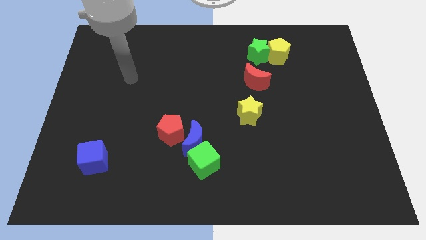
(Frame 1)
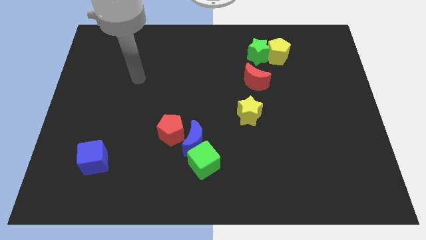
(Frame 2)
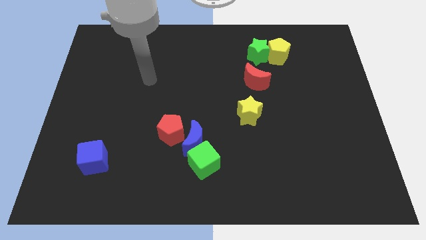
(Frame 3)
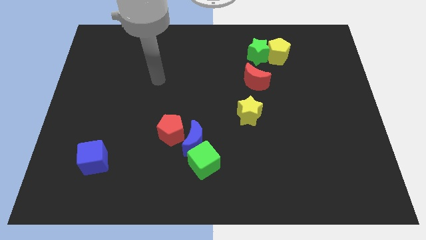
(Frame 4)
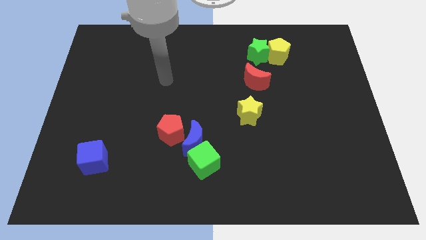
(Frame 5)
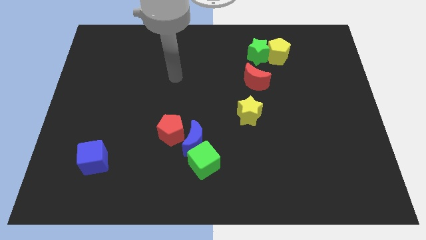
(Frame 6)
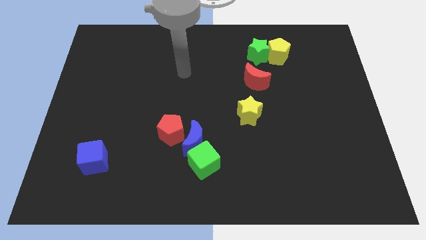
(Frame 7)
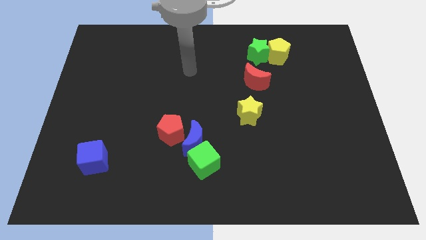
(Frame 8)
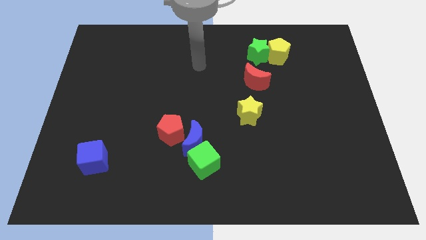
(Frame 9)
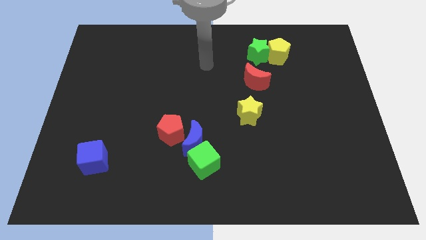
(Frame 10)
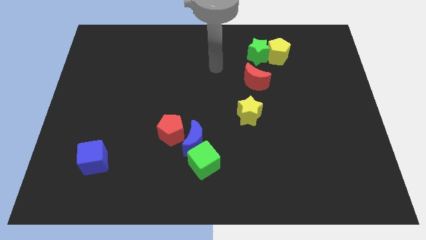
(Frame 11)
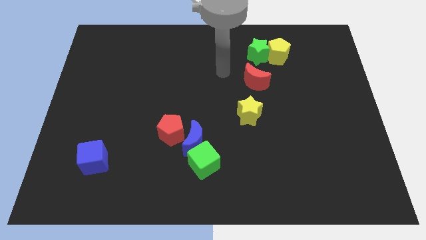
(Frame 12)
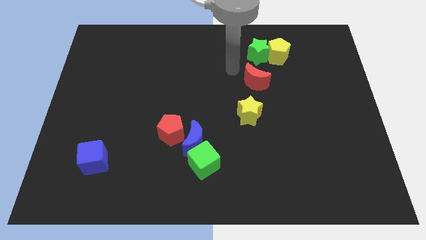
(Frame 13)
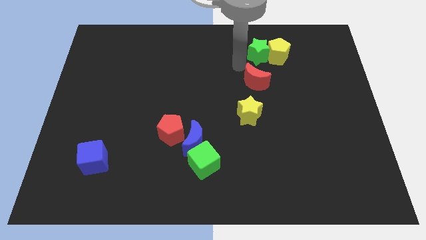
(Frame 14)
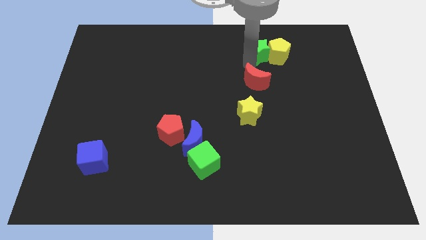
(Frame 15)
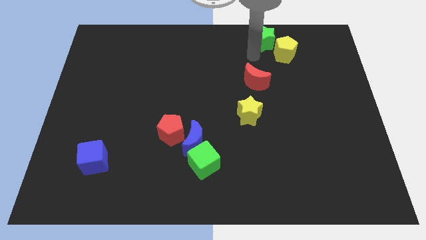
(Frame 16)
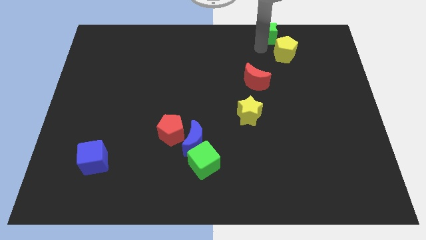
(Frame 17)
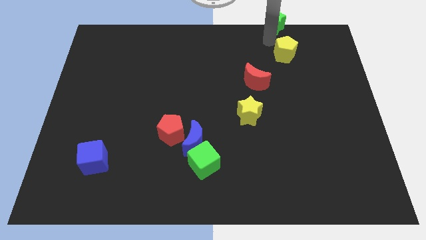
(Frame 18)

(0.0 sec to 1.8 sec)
pull the yellow pentagon apart from the green star

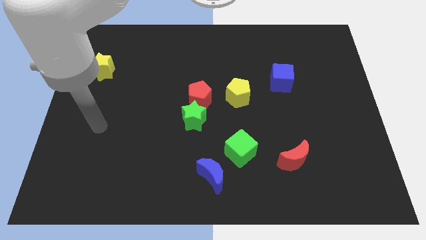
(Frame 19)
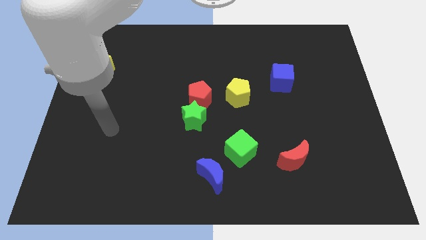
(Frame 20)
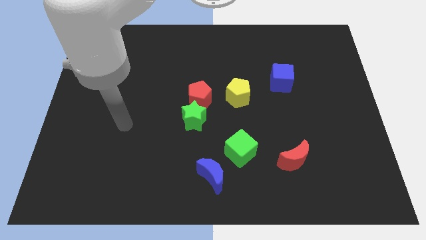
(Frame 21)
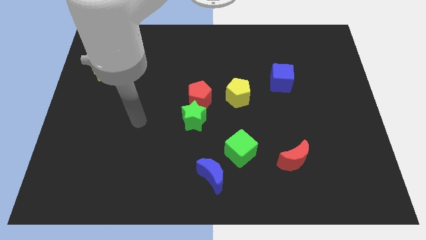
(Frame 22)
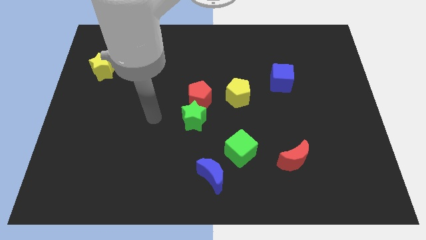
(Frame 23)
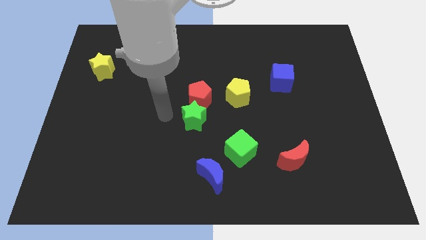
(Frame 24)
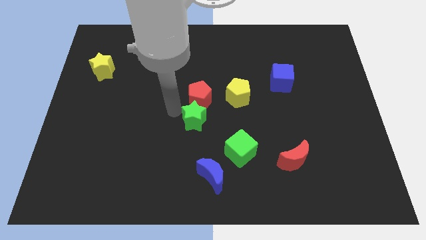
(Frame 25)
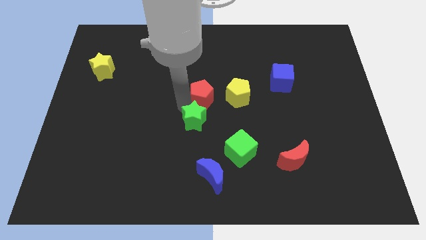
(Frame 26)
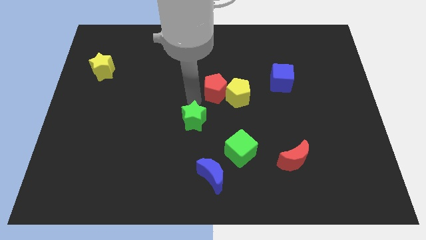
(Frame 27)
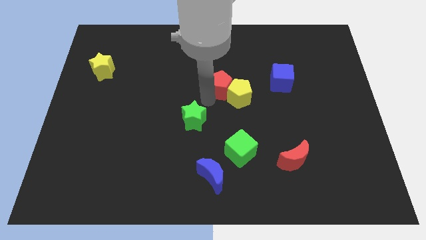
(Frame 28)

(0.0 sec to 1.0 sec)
separate the green star from the red pentagon

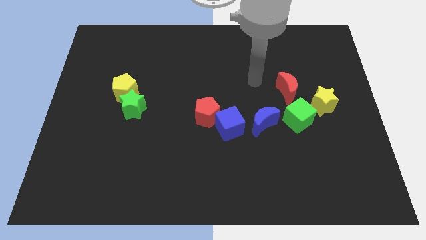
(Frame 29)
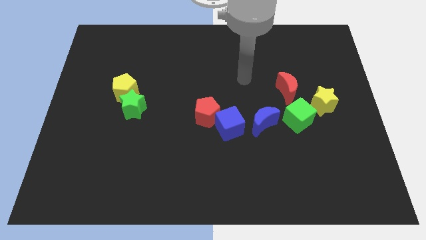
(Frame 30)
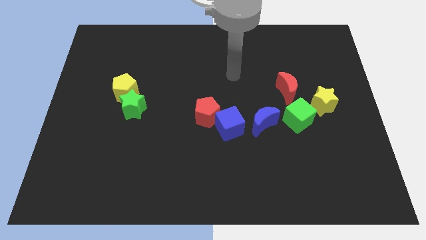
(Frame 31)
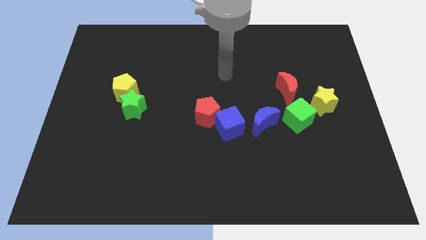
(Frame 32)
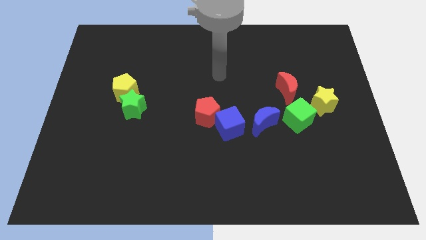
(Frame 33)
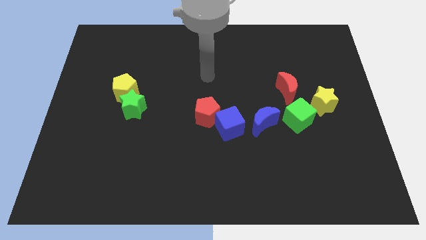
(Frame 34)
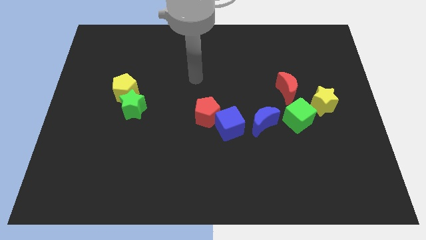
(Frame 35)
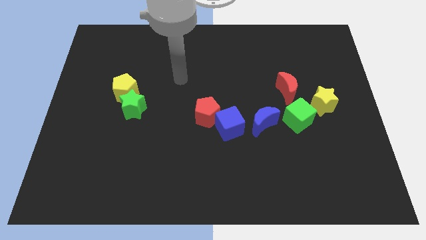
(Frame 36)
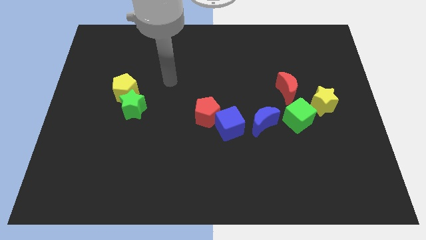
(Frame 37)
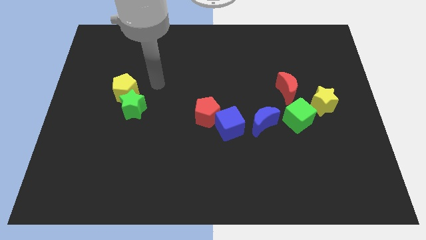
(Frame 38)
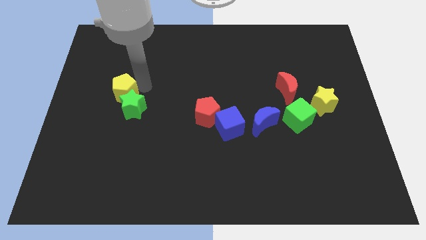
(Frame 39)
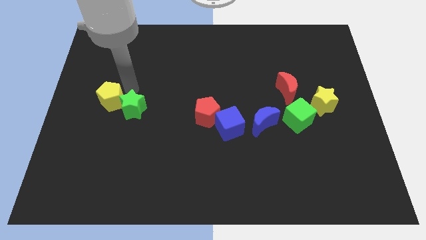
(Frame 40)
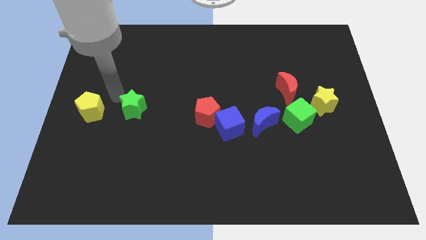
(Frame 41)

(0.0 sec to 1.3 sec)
pull the green star apart from the yellow pentagon

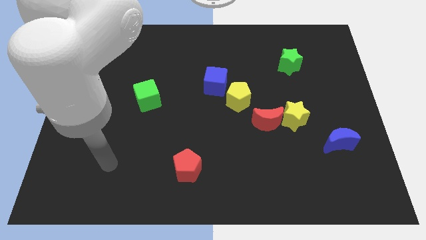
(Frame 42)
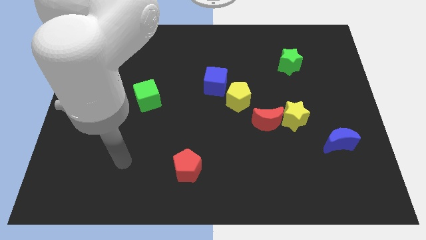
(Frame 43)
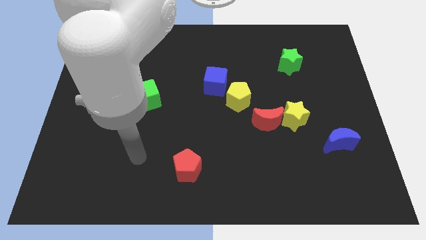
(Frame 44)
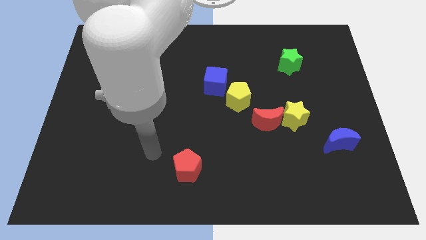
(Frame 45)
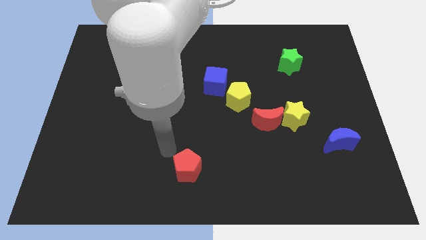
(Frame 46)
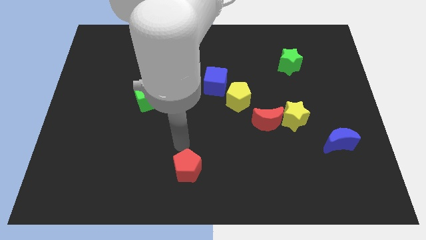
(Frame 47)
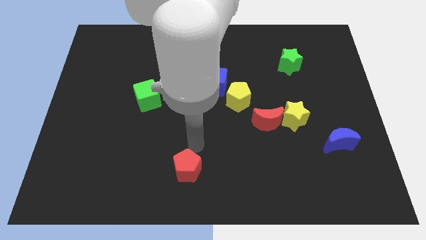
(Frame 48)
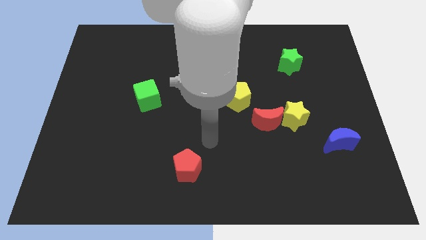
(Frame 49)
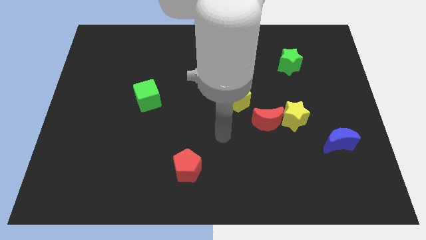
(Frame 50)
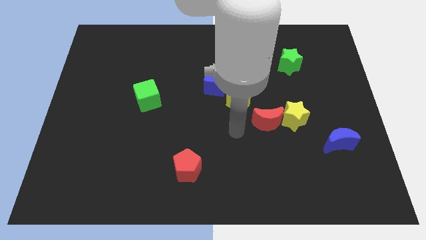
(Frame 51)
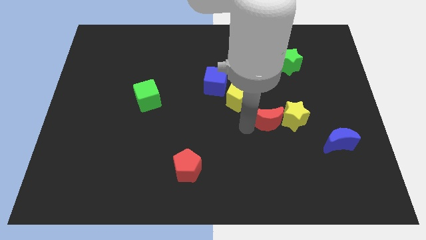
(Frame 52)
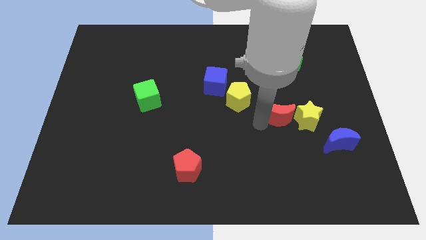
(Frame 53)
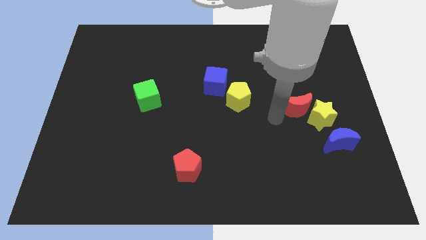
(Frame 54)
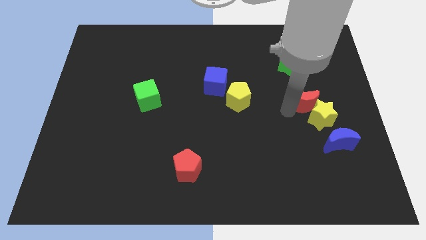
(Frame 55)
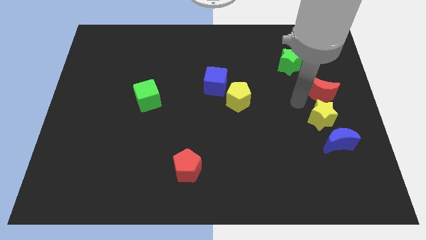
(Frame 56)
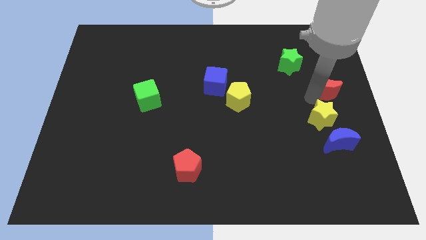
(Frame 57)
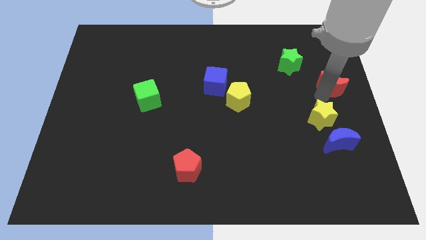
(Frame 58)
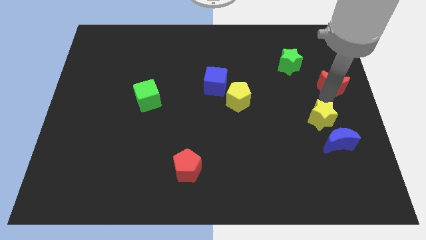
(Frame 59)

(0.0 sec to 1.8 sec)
separate the yellow star from the red moon

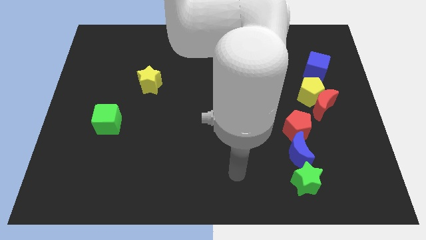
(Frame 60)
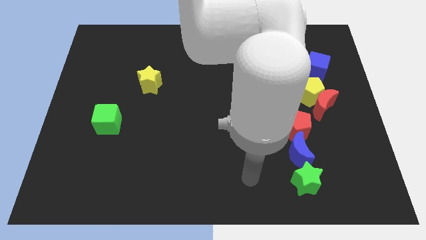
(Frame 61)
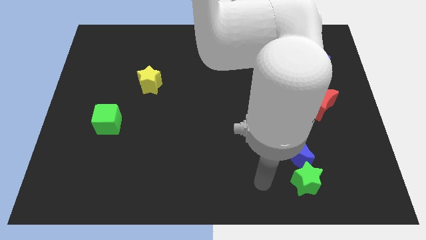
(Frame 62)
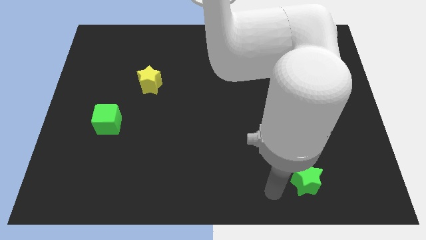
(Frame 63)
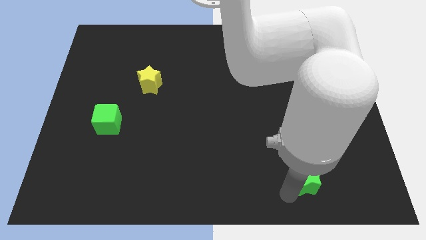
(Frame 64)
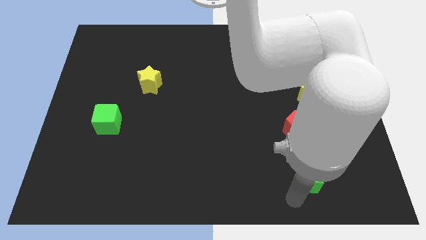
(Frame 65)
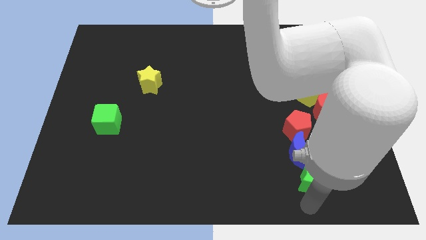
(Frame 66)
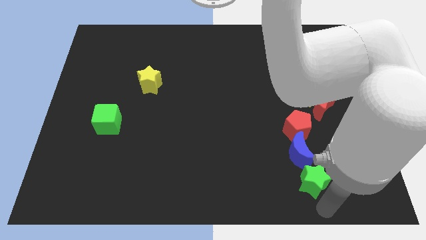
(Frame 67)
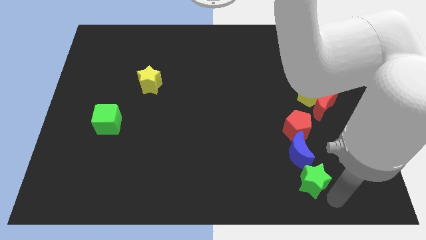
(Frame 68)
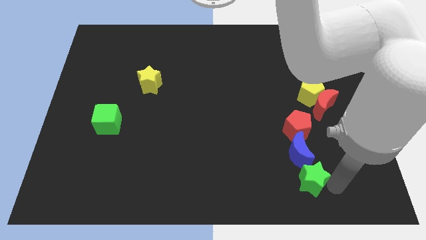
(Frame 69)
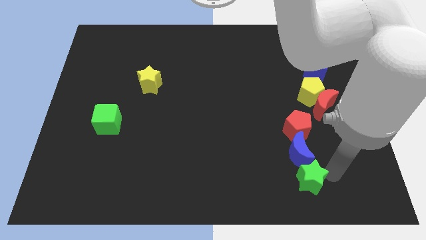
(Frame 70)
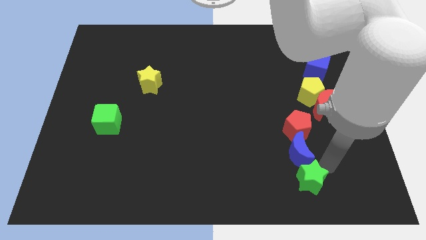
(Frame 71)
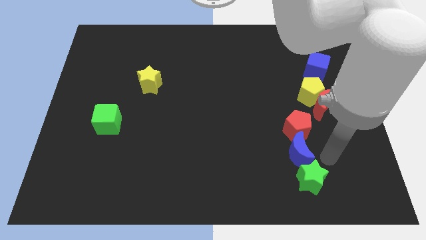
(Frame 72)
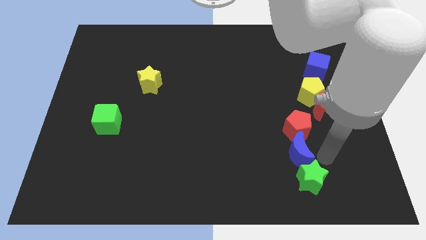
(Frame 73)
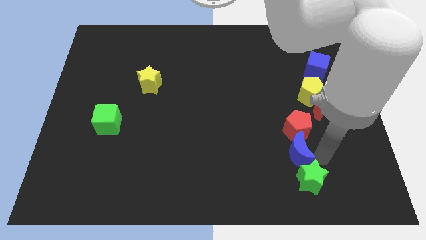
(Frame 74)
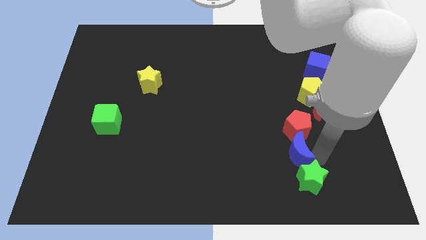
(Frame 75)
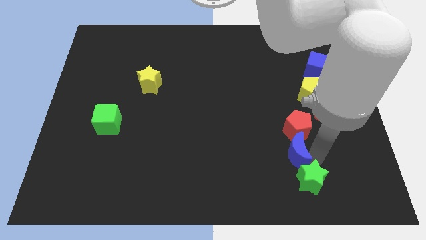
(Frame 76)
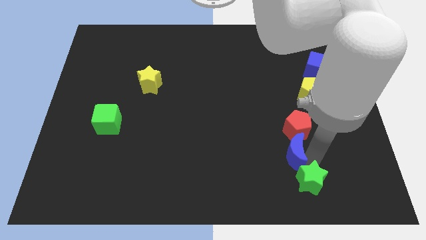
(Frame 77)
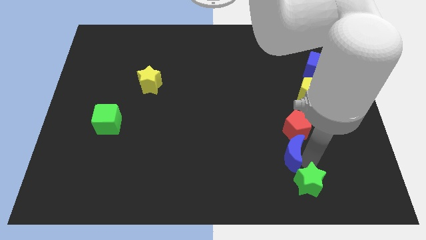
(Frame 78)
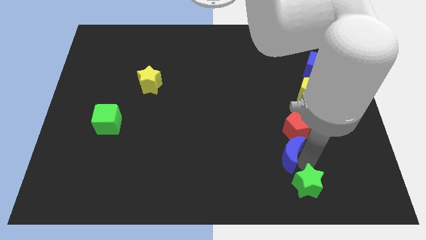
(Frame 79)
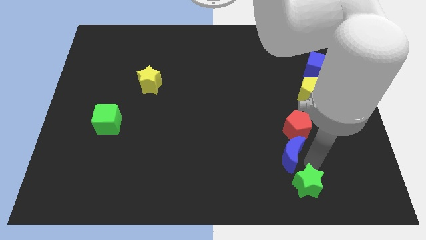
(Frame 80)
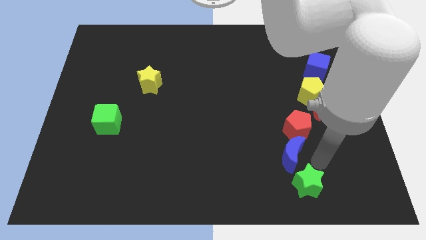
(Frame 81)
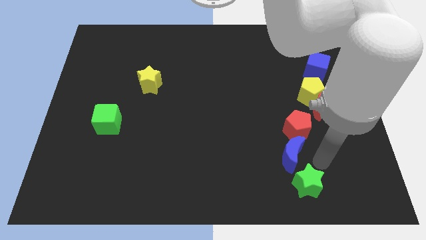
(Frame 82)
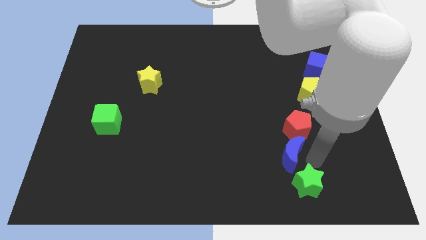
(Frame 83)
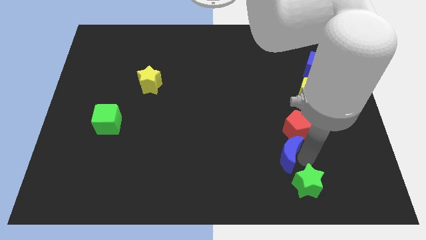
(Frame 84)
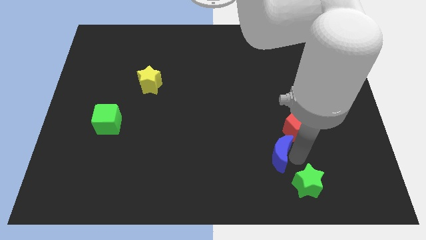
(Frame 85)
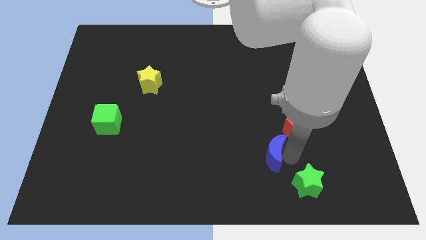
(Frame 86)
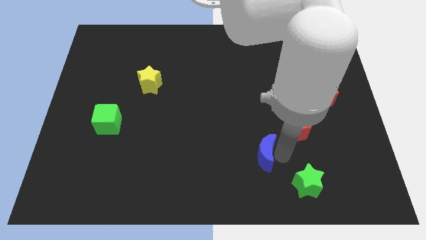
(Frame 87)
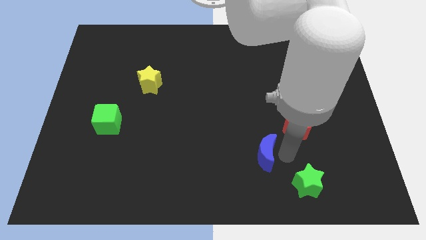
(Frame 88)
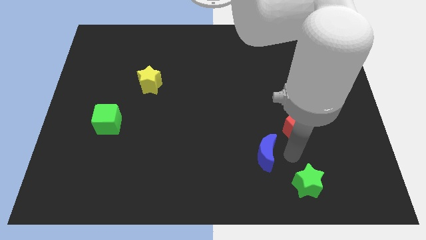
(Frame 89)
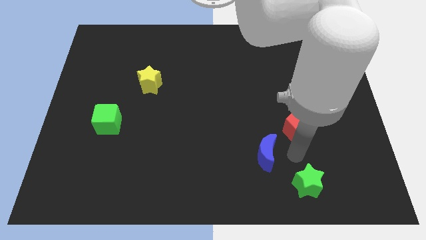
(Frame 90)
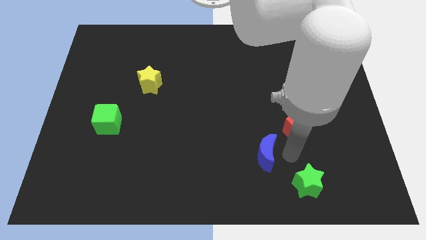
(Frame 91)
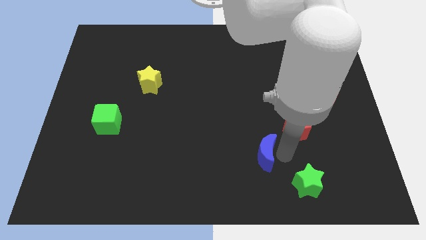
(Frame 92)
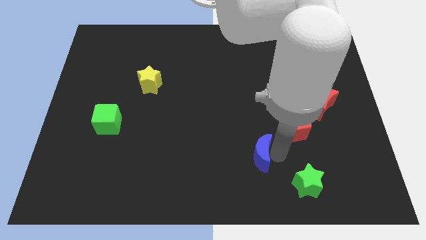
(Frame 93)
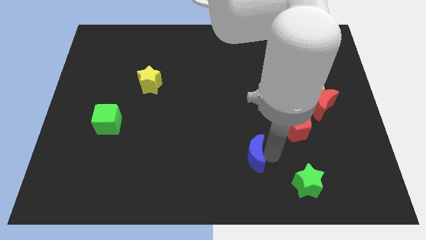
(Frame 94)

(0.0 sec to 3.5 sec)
separate the blue moon from the red pentagon and green star
